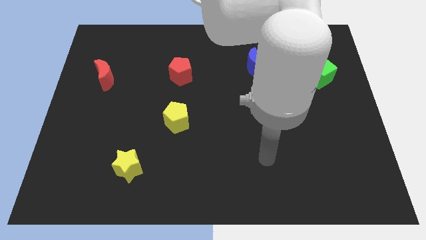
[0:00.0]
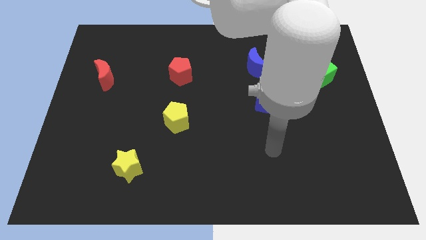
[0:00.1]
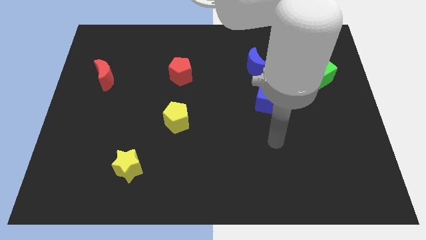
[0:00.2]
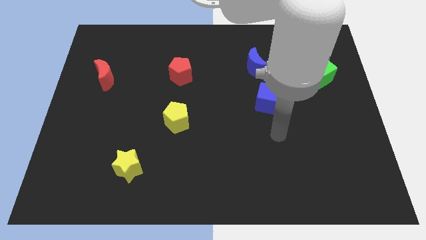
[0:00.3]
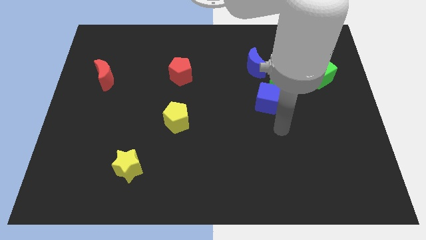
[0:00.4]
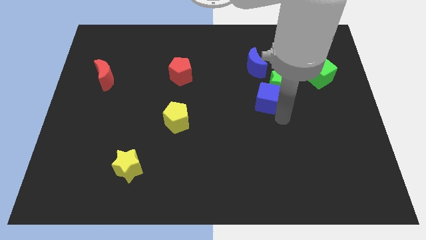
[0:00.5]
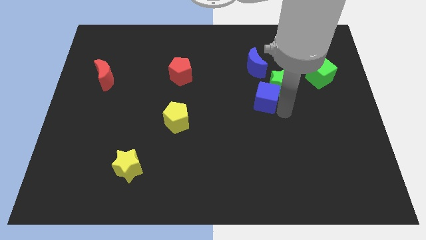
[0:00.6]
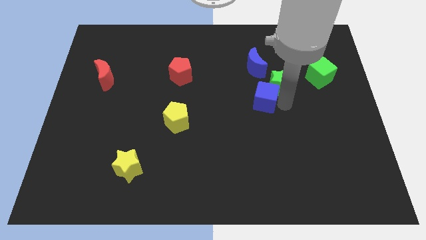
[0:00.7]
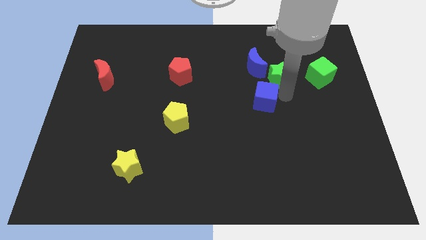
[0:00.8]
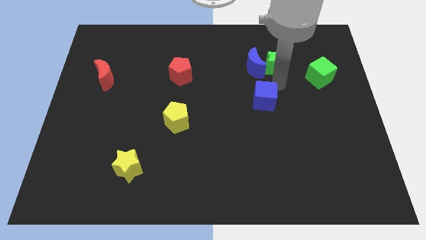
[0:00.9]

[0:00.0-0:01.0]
pull the blue cube apart from the green star

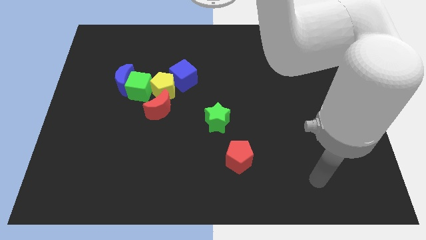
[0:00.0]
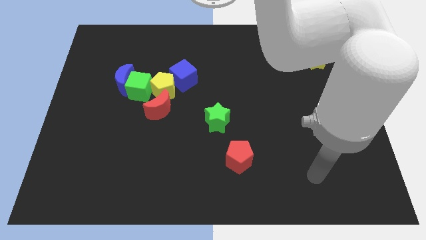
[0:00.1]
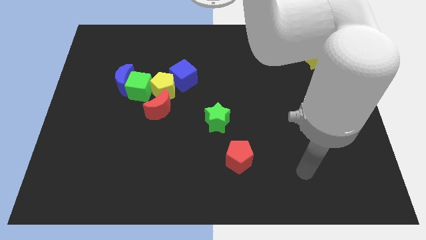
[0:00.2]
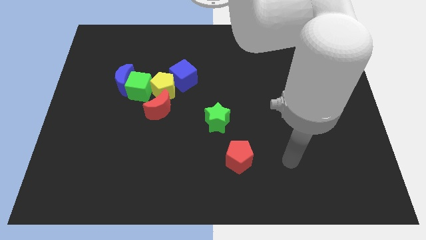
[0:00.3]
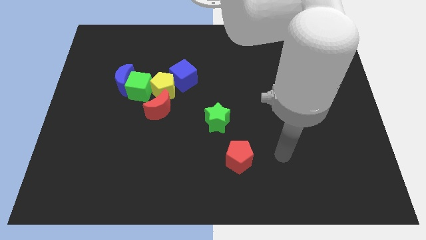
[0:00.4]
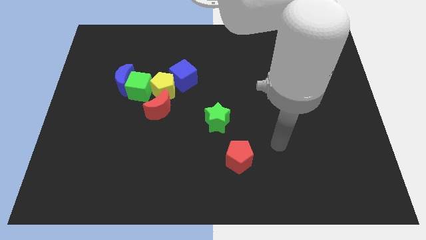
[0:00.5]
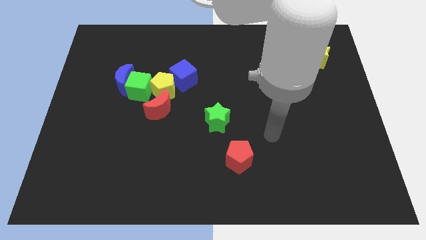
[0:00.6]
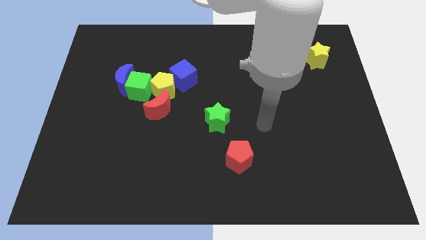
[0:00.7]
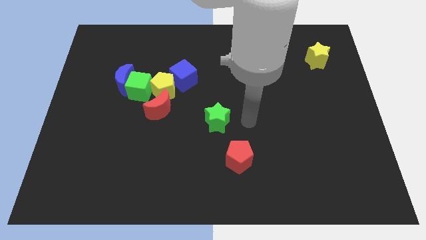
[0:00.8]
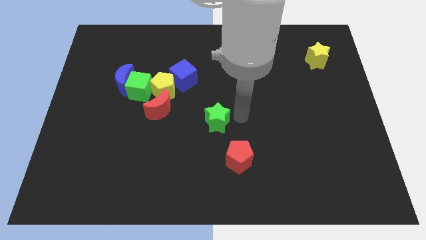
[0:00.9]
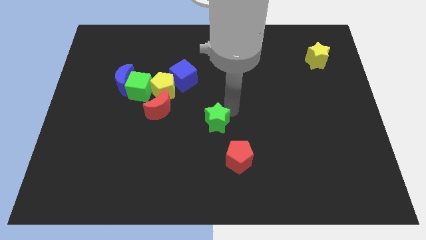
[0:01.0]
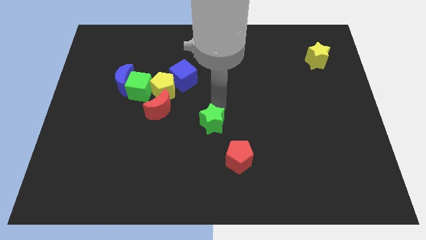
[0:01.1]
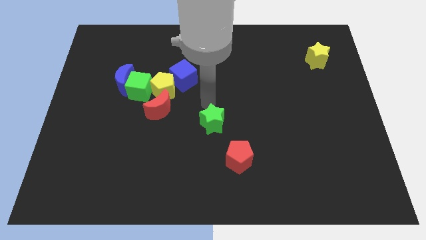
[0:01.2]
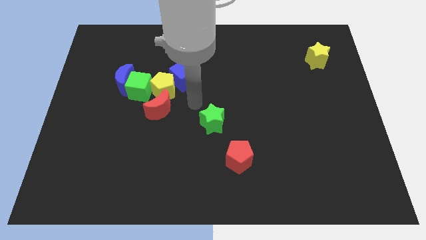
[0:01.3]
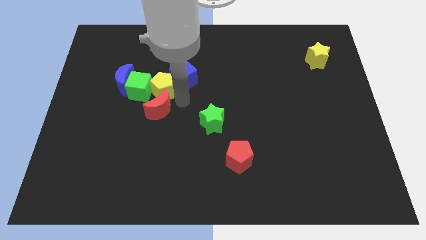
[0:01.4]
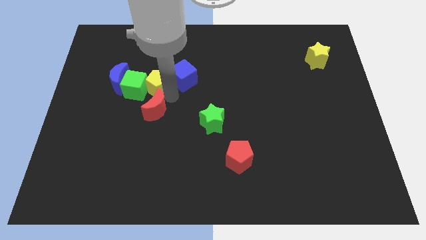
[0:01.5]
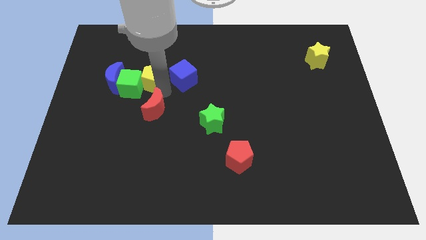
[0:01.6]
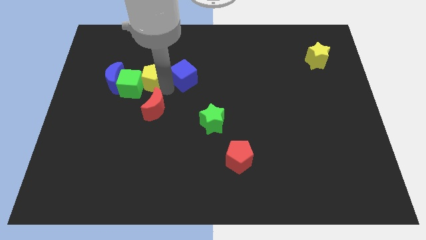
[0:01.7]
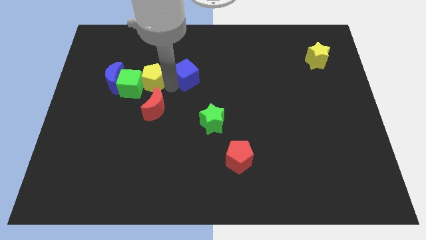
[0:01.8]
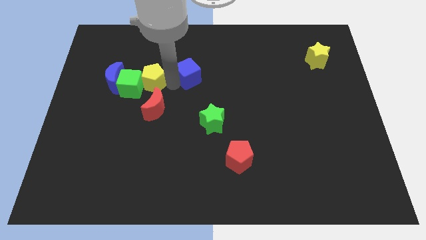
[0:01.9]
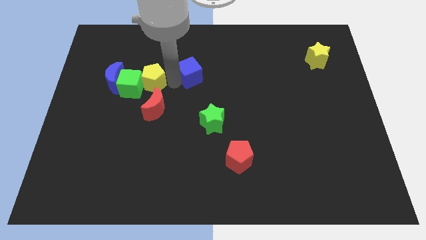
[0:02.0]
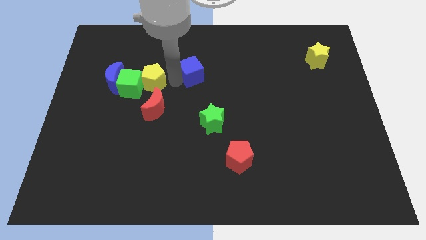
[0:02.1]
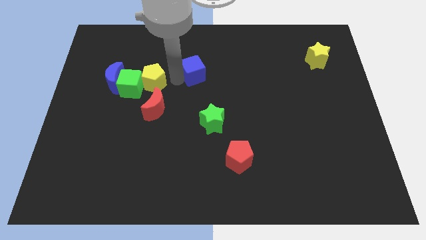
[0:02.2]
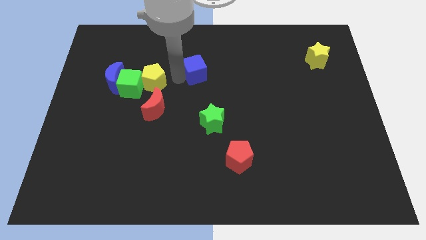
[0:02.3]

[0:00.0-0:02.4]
pull the blue cube apart from the yellow pentagon

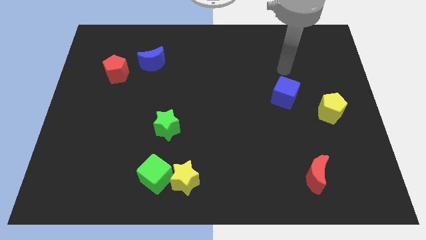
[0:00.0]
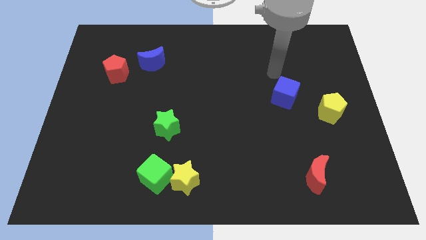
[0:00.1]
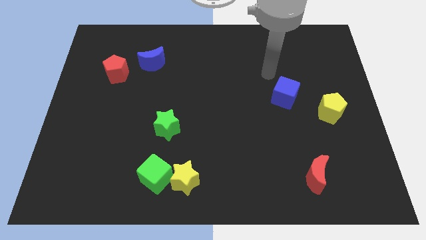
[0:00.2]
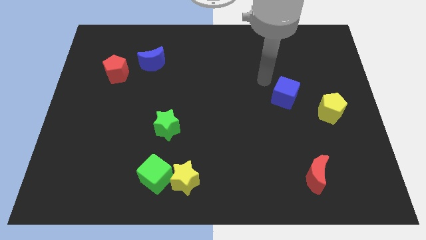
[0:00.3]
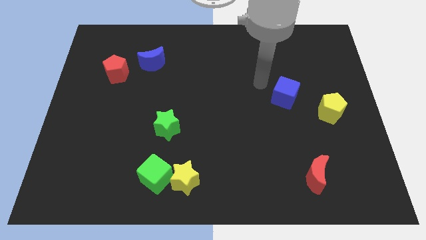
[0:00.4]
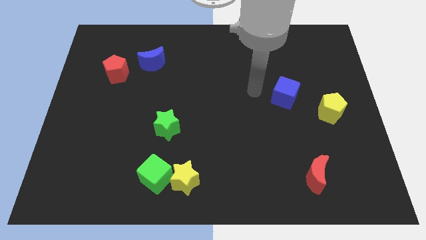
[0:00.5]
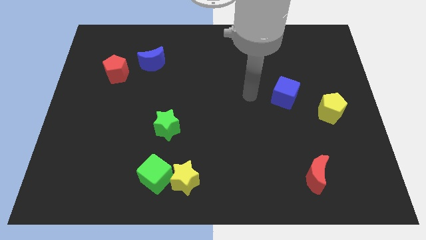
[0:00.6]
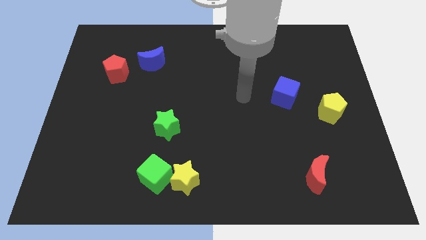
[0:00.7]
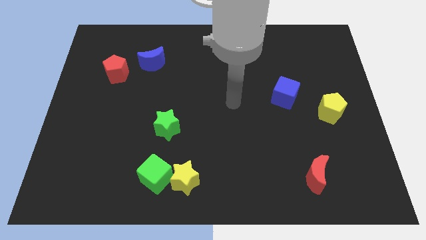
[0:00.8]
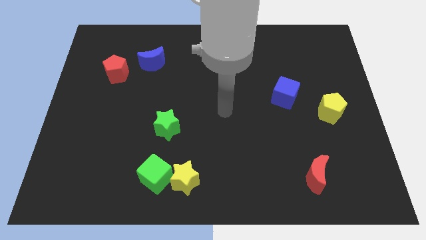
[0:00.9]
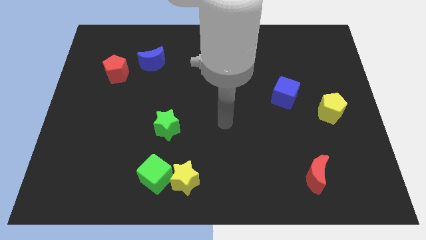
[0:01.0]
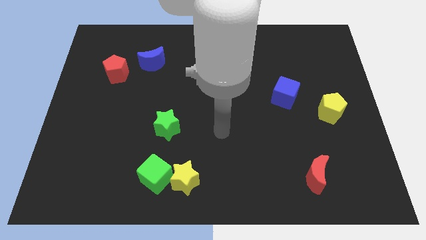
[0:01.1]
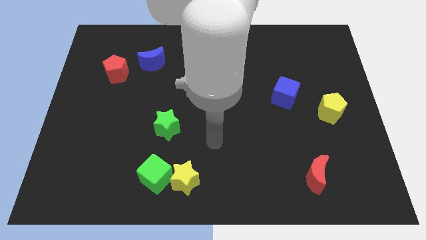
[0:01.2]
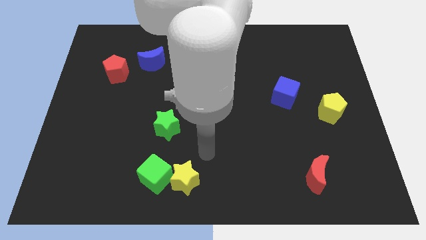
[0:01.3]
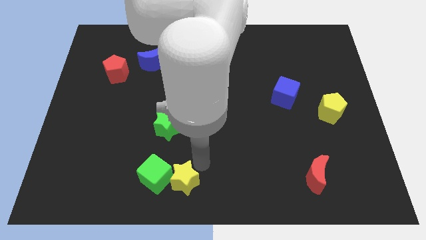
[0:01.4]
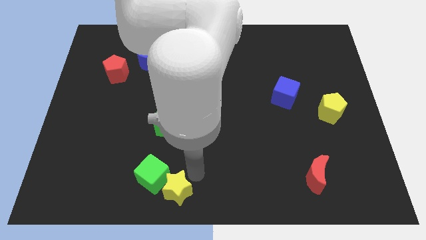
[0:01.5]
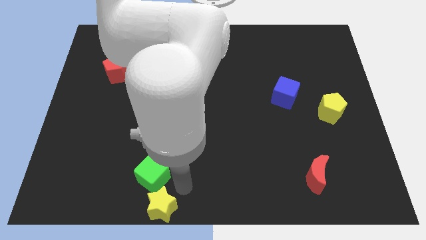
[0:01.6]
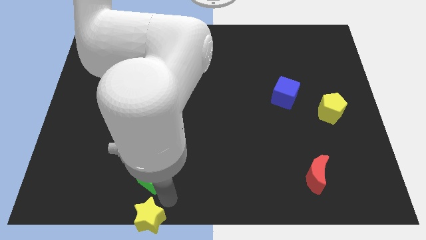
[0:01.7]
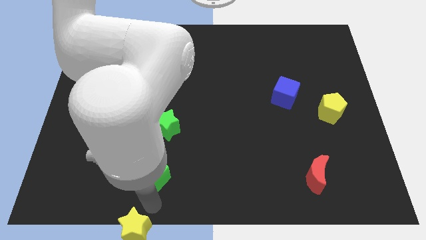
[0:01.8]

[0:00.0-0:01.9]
move the green cube away from the yellow star

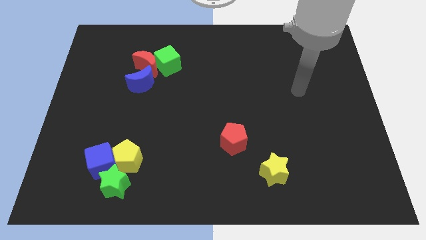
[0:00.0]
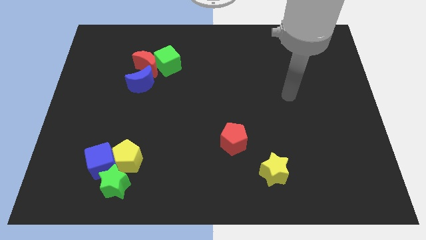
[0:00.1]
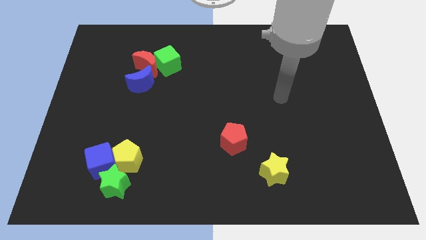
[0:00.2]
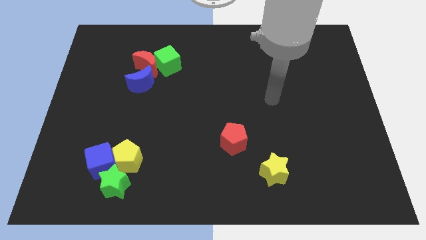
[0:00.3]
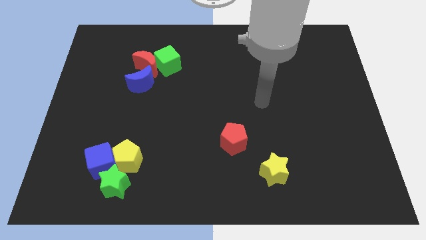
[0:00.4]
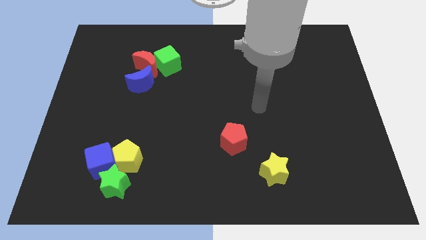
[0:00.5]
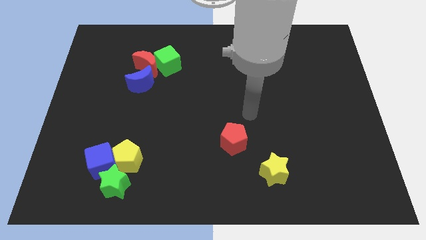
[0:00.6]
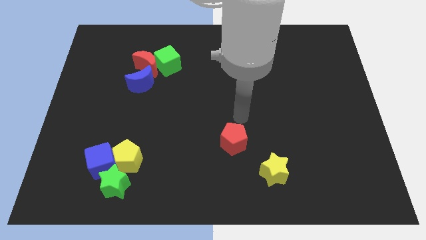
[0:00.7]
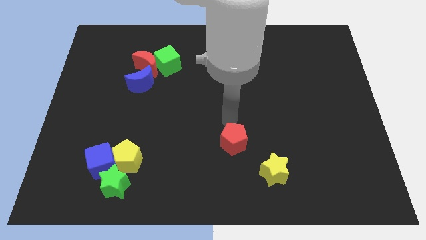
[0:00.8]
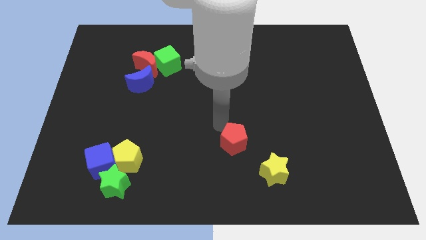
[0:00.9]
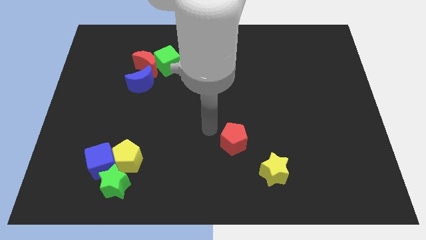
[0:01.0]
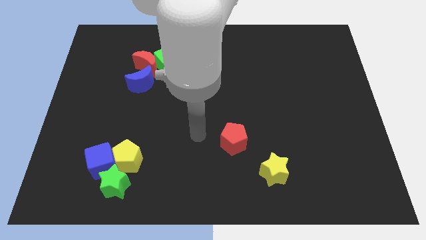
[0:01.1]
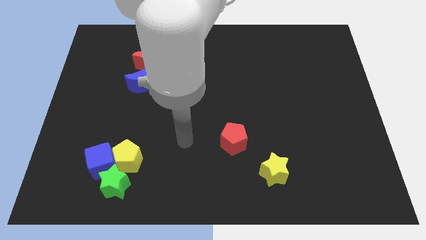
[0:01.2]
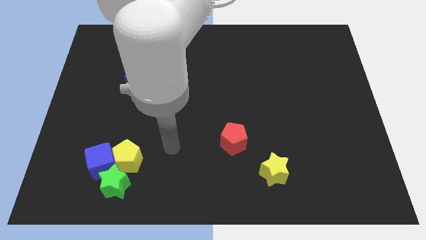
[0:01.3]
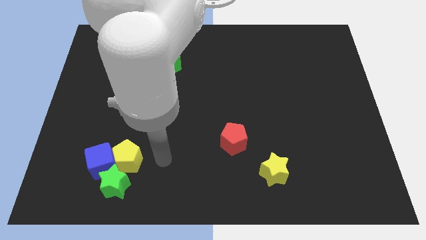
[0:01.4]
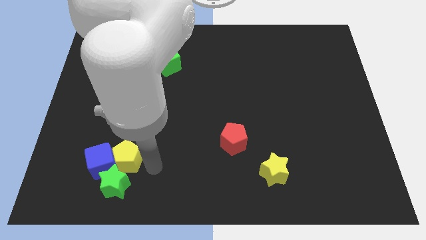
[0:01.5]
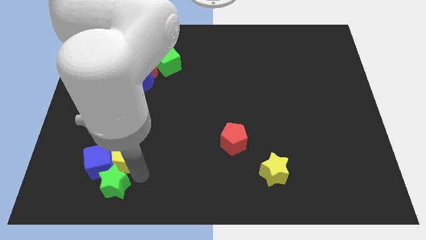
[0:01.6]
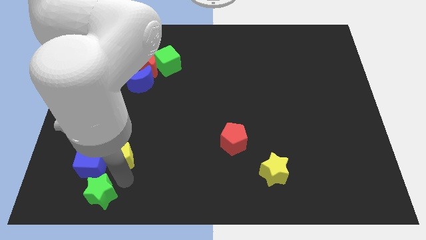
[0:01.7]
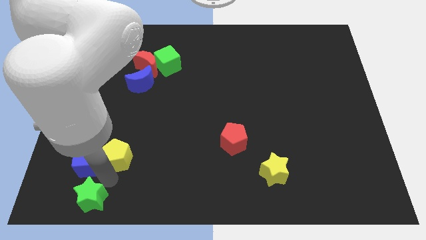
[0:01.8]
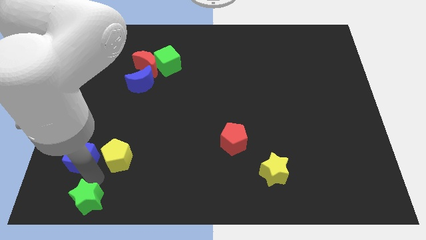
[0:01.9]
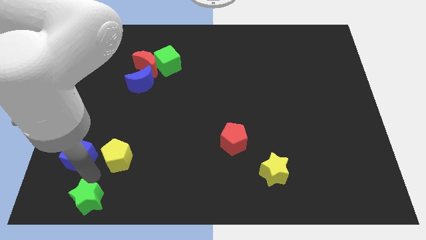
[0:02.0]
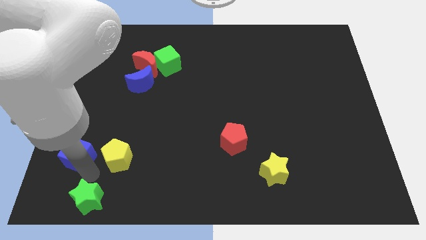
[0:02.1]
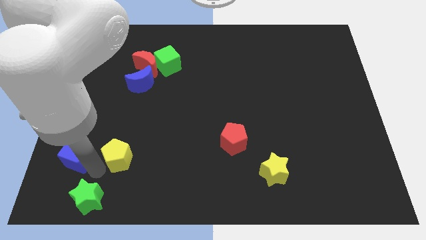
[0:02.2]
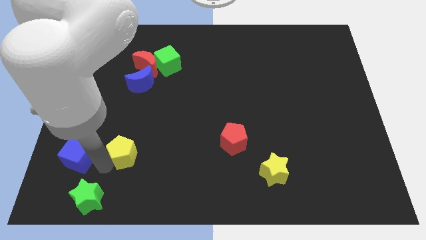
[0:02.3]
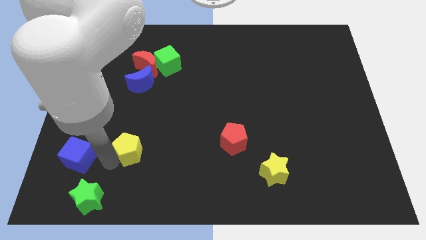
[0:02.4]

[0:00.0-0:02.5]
pull the yellow pentagon apart from the blue cube and green star

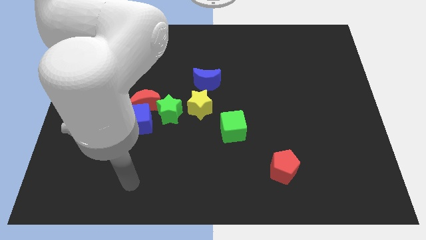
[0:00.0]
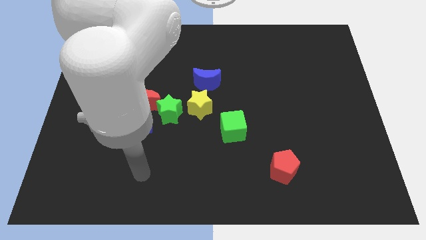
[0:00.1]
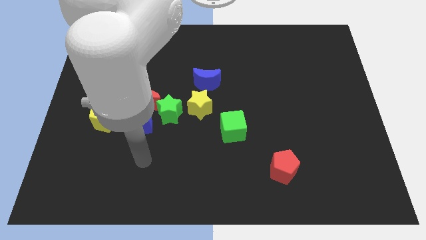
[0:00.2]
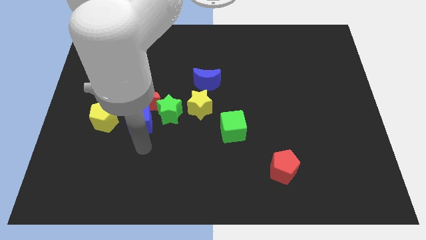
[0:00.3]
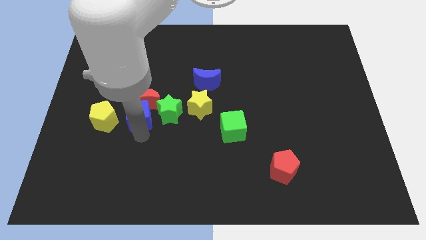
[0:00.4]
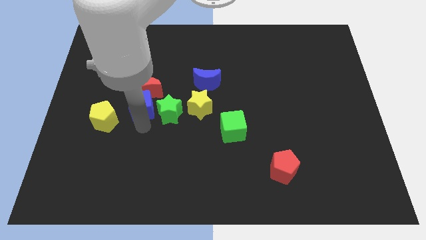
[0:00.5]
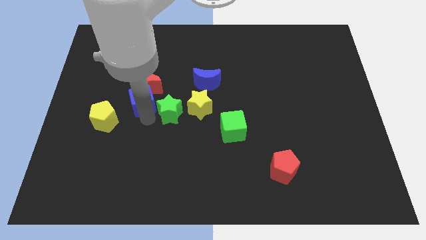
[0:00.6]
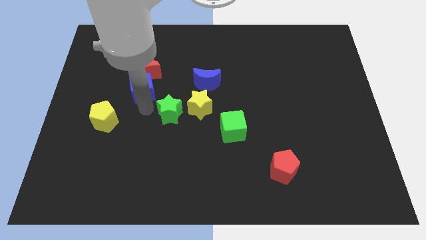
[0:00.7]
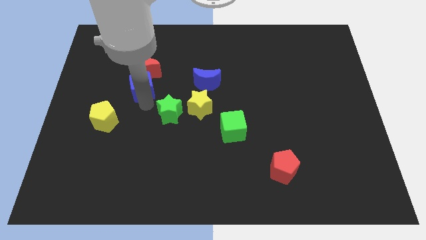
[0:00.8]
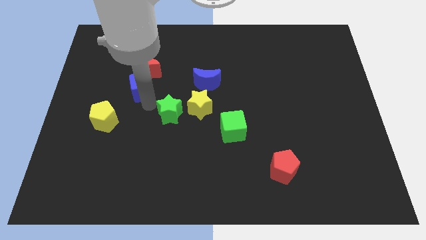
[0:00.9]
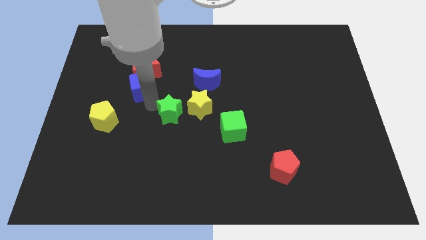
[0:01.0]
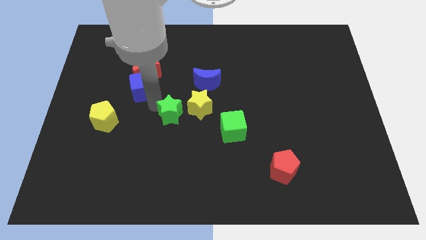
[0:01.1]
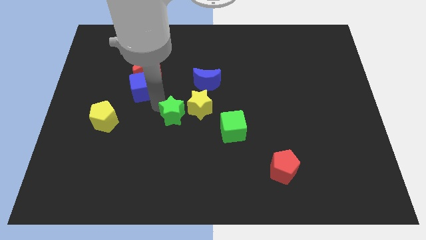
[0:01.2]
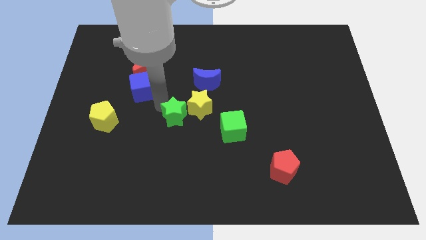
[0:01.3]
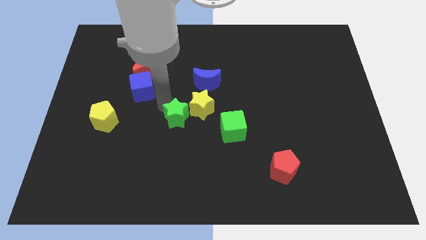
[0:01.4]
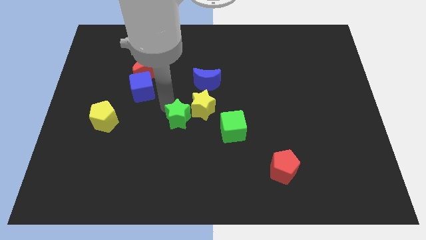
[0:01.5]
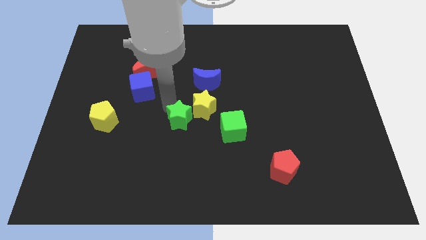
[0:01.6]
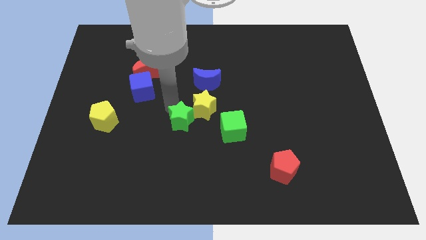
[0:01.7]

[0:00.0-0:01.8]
move the green star away from the red moon, yellow star, and blue cube
